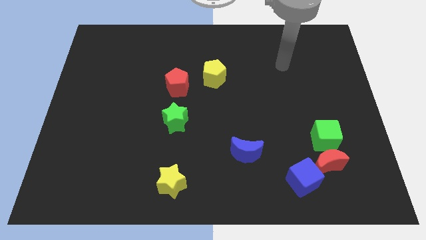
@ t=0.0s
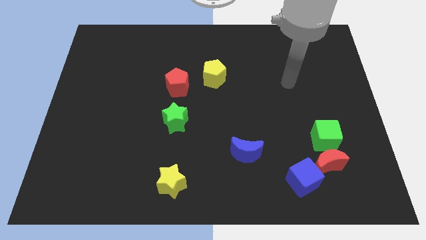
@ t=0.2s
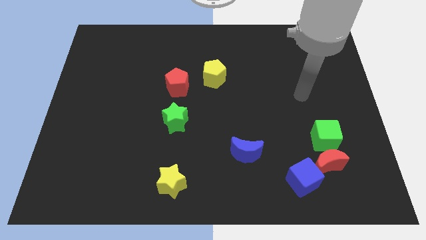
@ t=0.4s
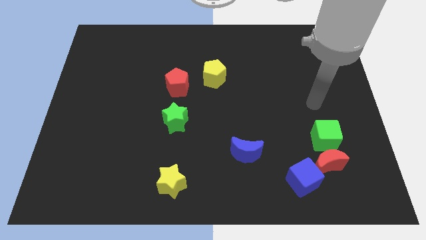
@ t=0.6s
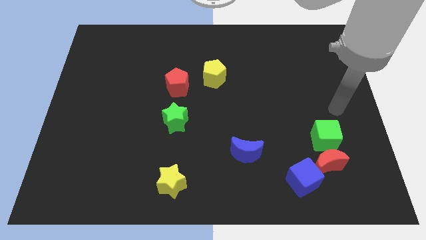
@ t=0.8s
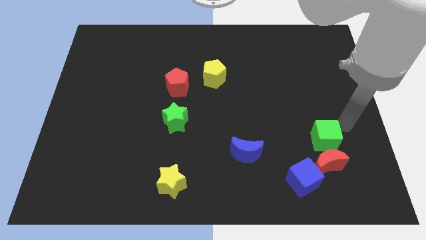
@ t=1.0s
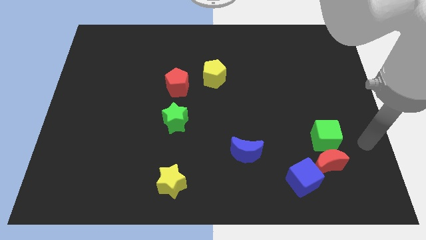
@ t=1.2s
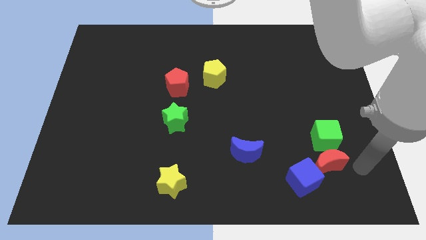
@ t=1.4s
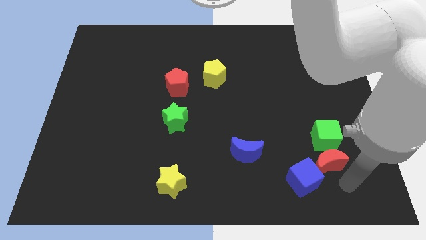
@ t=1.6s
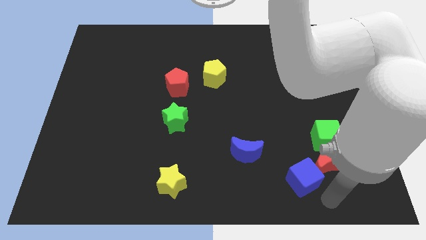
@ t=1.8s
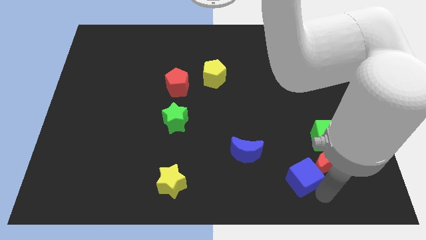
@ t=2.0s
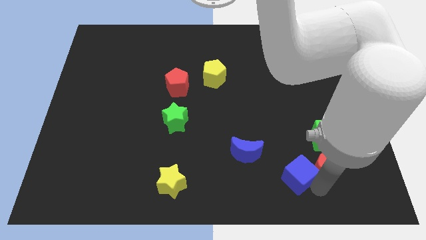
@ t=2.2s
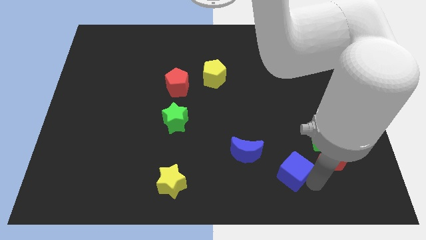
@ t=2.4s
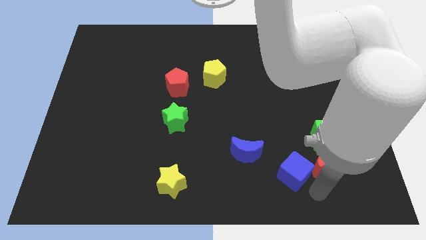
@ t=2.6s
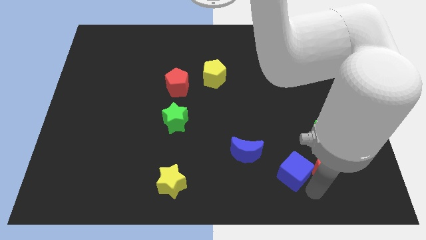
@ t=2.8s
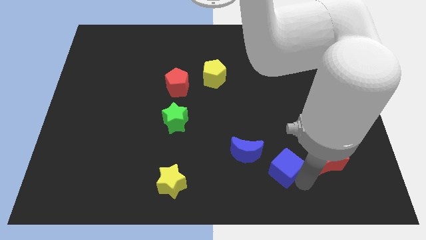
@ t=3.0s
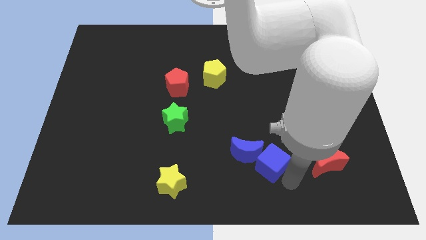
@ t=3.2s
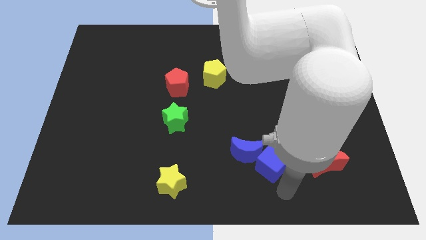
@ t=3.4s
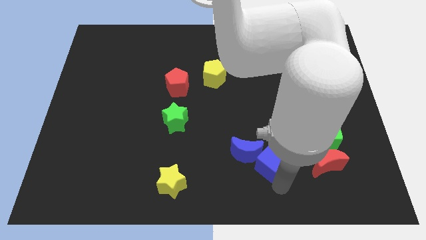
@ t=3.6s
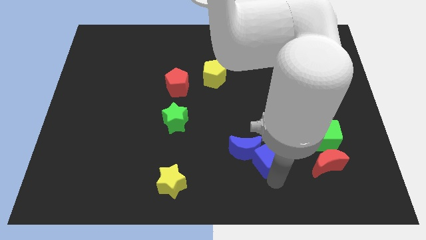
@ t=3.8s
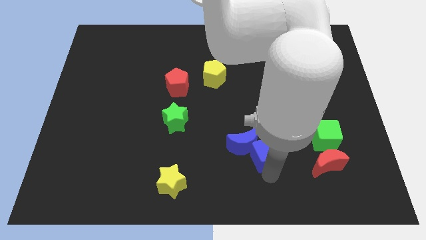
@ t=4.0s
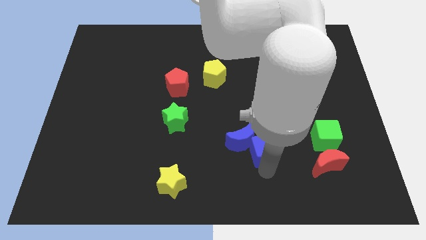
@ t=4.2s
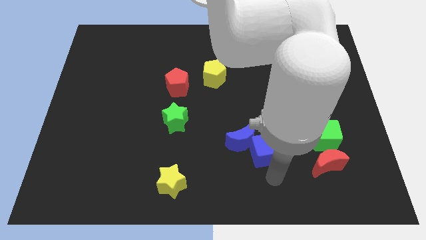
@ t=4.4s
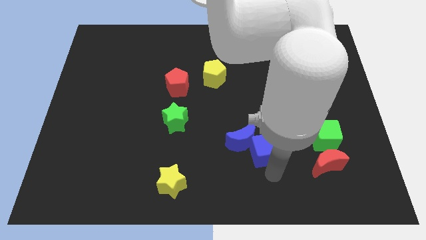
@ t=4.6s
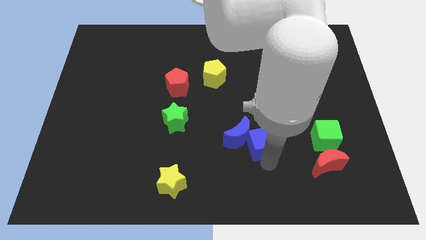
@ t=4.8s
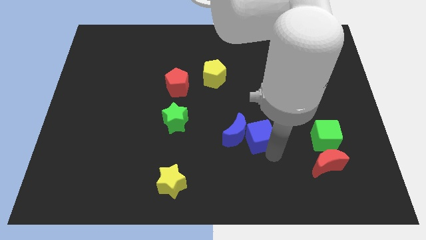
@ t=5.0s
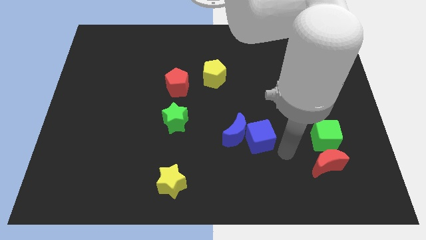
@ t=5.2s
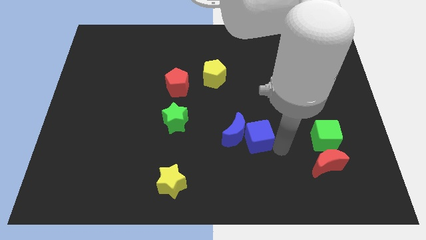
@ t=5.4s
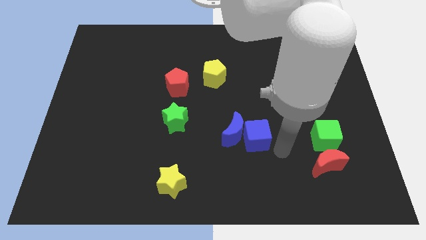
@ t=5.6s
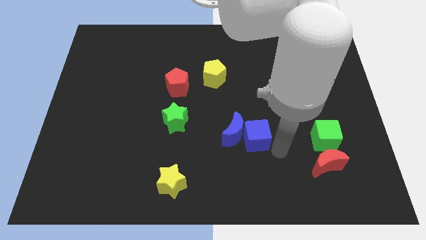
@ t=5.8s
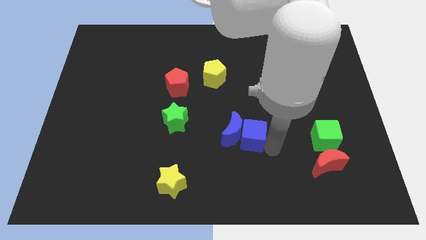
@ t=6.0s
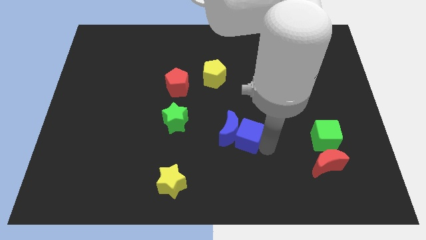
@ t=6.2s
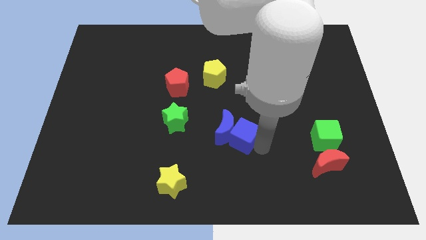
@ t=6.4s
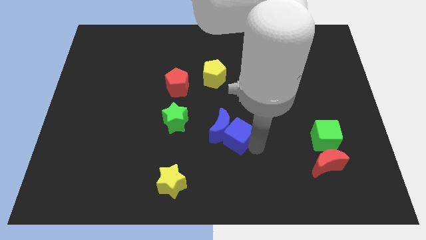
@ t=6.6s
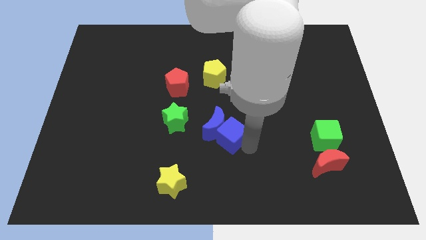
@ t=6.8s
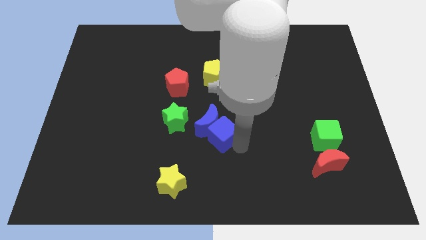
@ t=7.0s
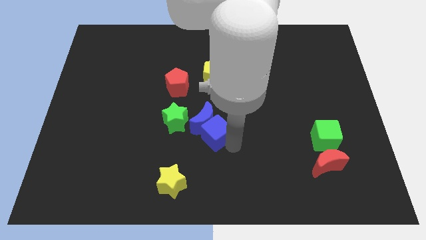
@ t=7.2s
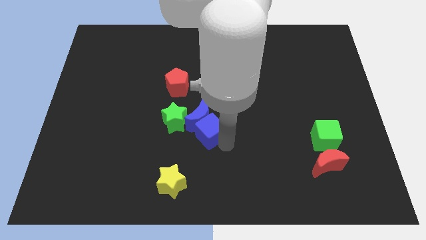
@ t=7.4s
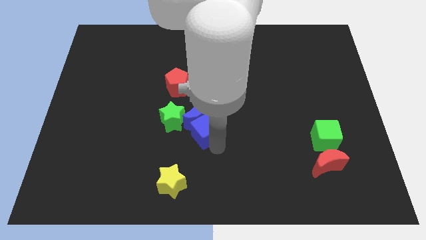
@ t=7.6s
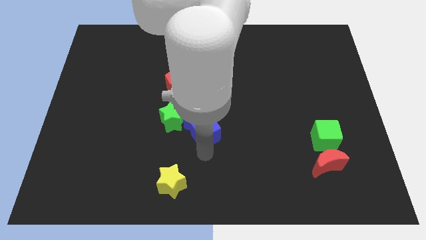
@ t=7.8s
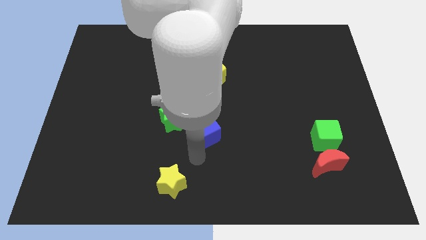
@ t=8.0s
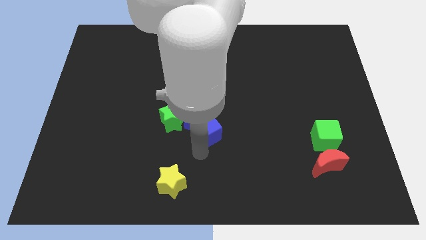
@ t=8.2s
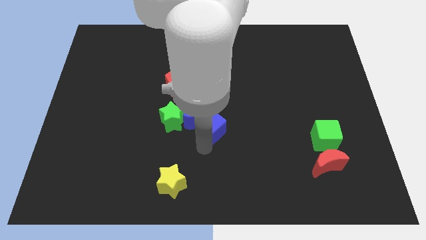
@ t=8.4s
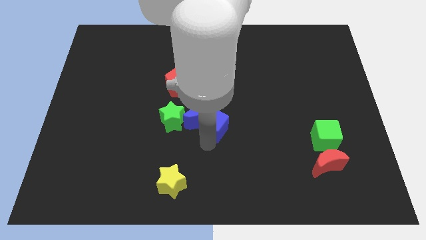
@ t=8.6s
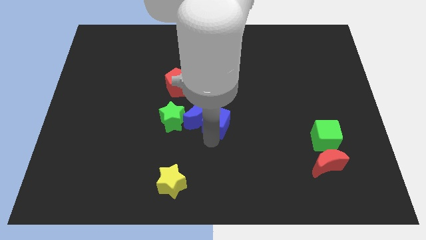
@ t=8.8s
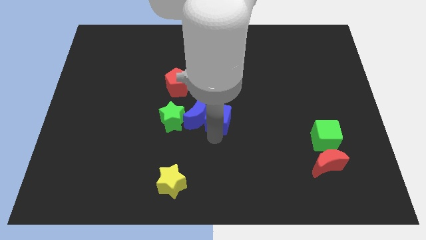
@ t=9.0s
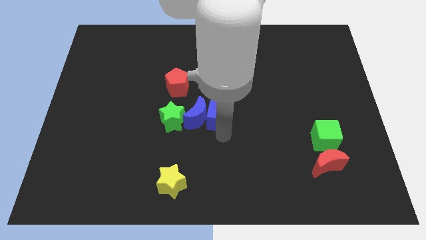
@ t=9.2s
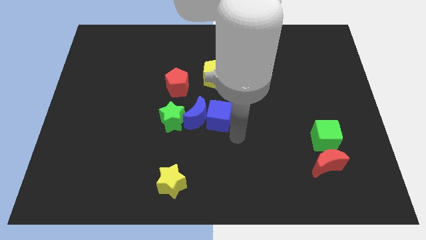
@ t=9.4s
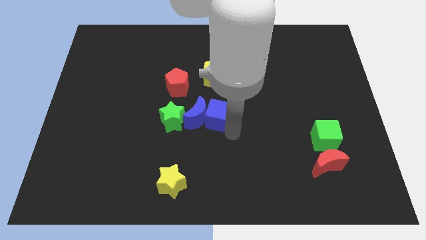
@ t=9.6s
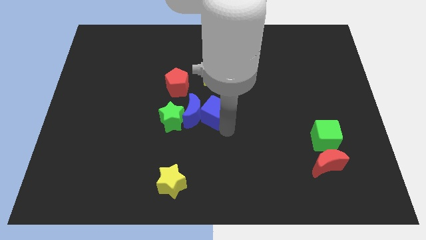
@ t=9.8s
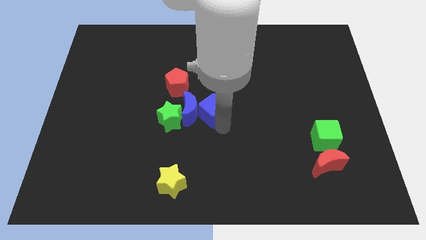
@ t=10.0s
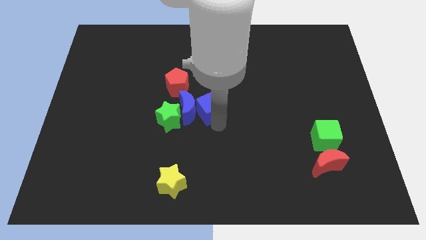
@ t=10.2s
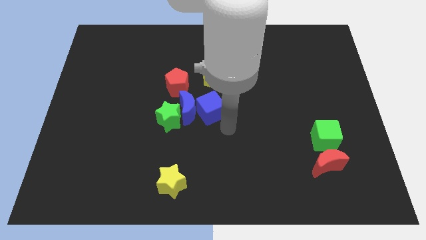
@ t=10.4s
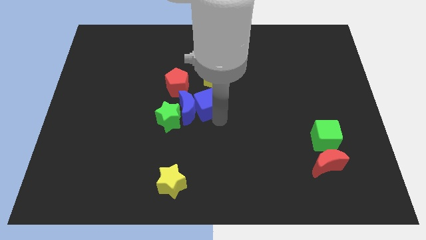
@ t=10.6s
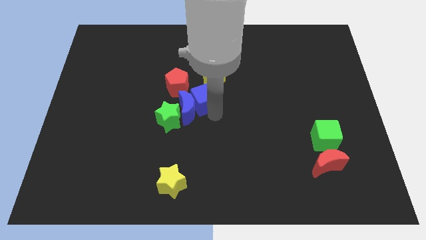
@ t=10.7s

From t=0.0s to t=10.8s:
push the blue cube to the bottom left of the yellow pentagon

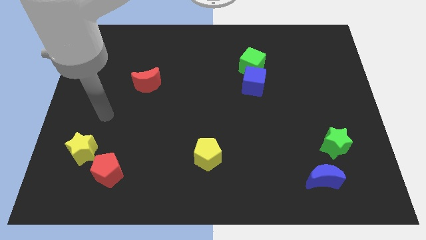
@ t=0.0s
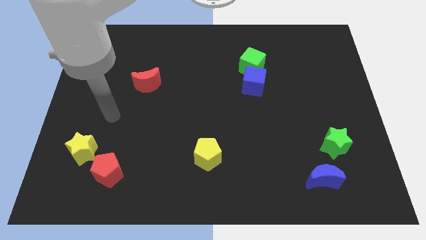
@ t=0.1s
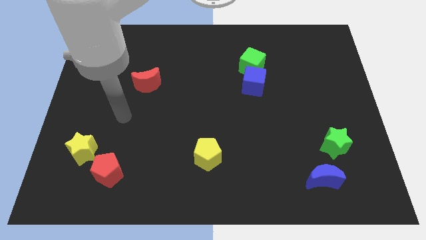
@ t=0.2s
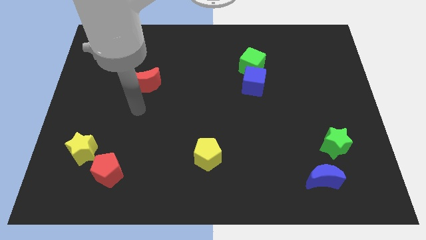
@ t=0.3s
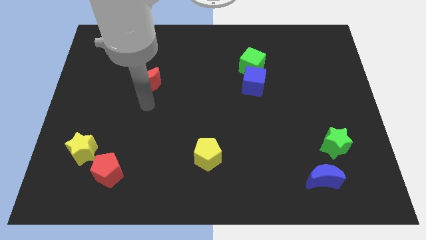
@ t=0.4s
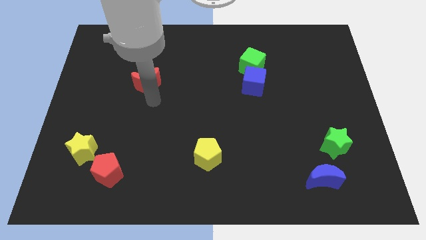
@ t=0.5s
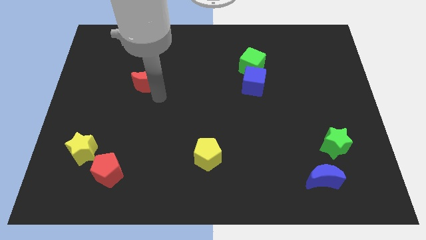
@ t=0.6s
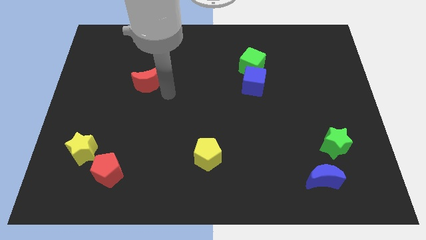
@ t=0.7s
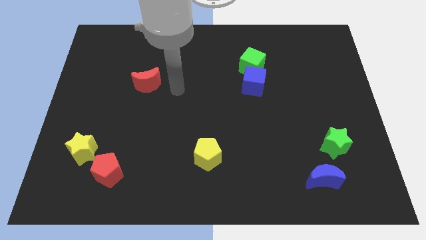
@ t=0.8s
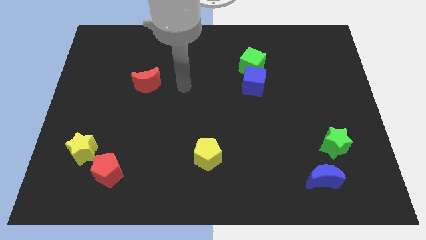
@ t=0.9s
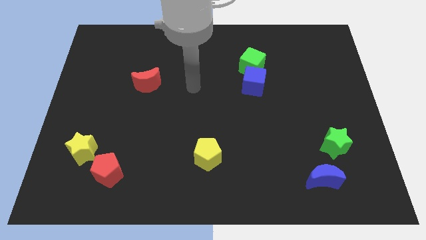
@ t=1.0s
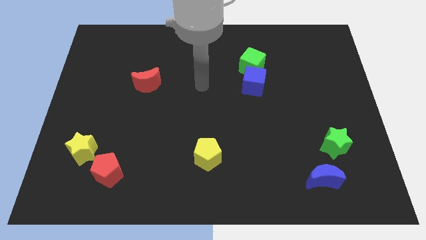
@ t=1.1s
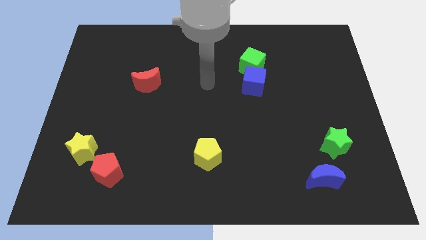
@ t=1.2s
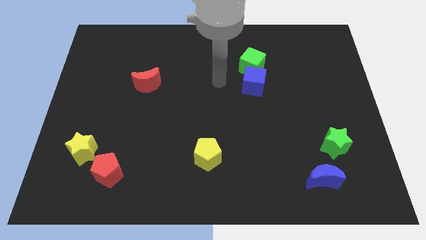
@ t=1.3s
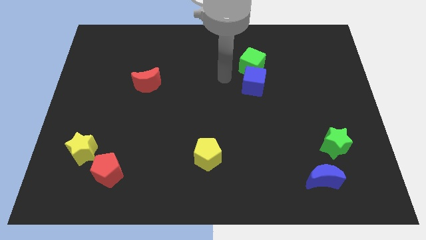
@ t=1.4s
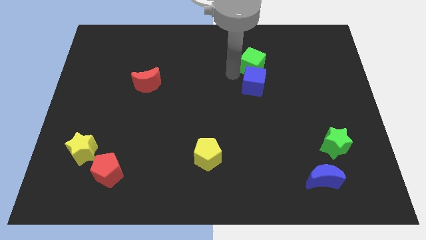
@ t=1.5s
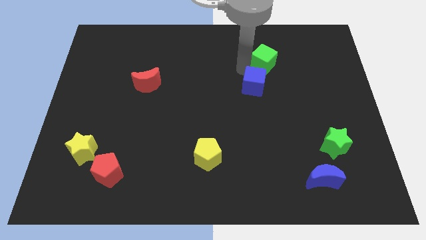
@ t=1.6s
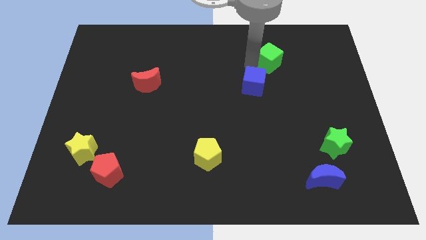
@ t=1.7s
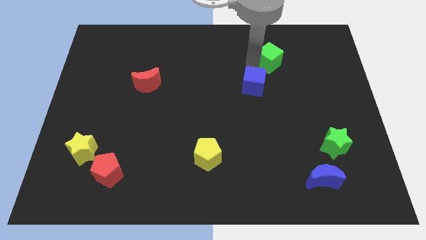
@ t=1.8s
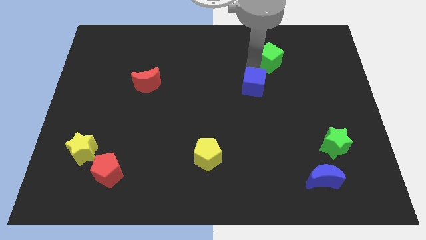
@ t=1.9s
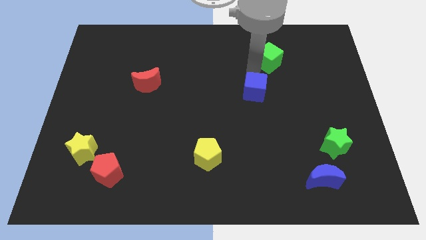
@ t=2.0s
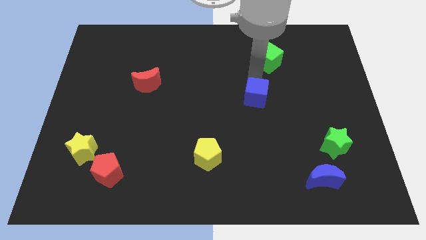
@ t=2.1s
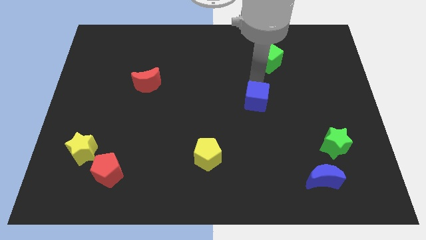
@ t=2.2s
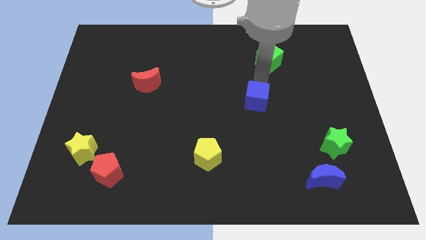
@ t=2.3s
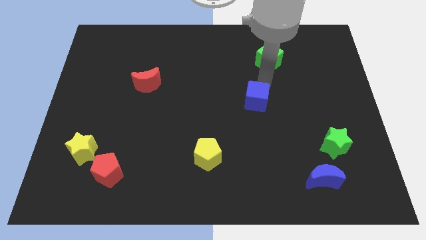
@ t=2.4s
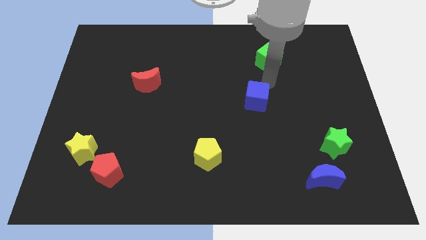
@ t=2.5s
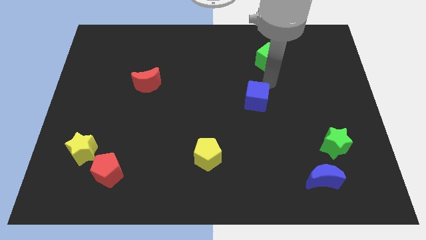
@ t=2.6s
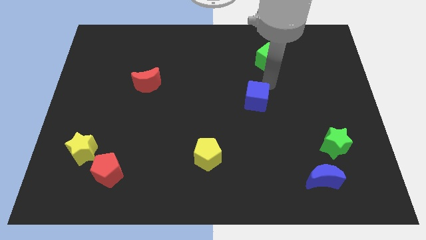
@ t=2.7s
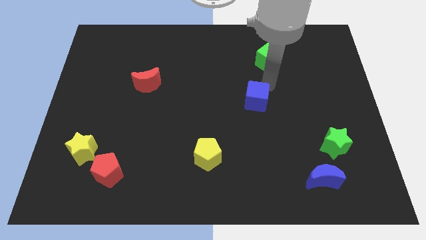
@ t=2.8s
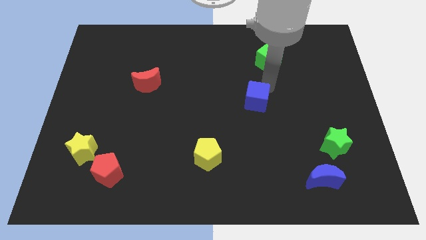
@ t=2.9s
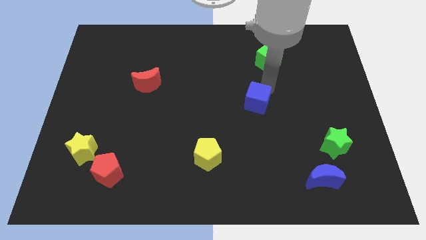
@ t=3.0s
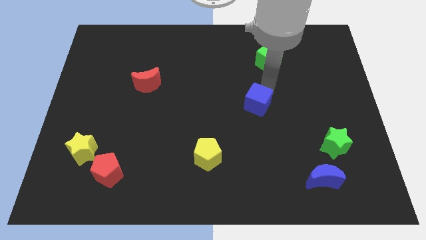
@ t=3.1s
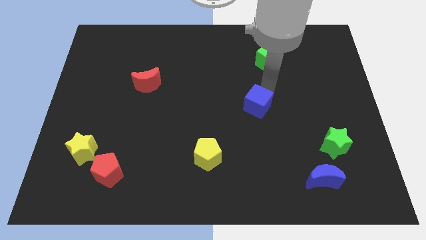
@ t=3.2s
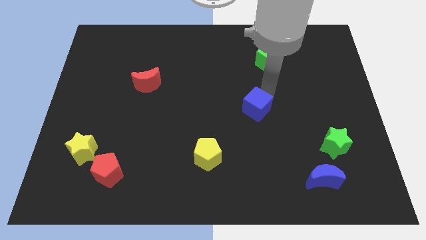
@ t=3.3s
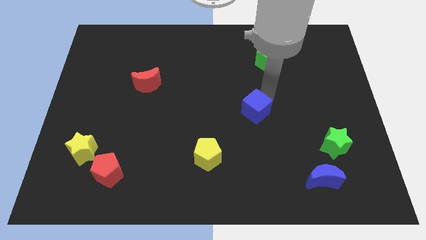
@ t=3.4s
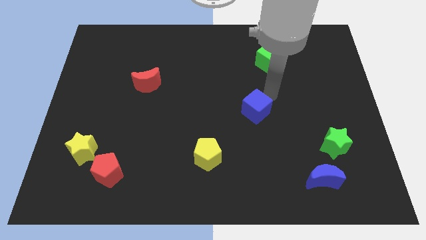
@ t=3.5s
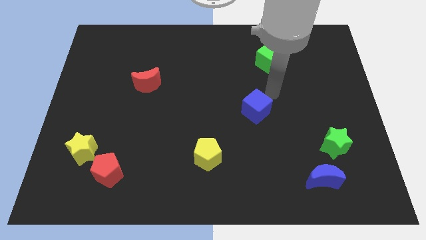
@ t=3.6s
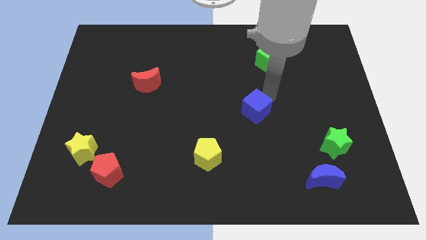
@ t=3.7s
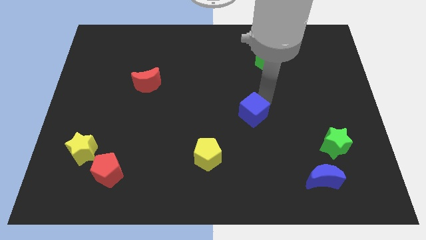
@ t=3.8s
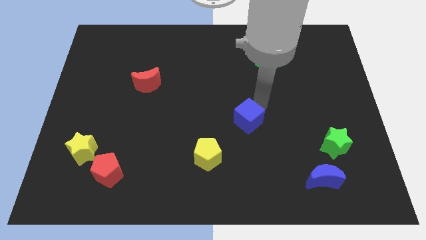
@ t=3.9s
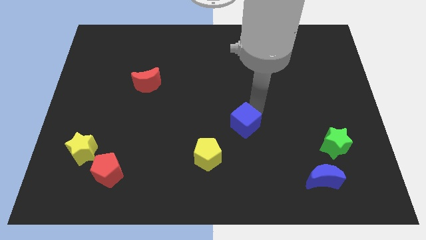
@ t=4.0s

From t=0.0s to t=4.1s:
move the blue cube to the top right side of the yellow pentagon
